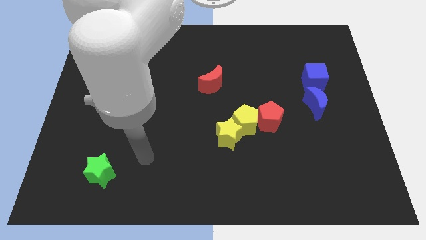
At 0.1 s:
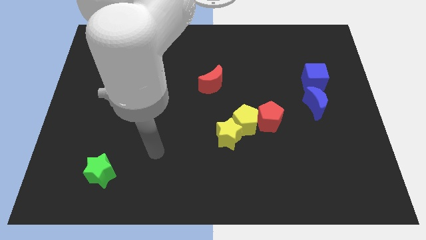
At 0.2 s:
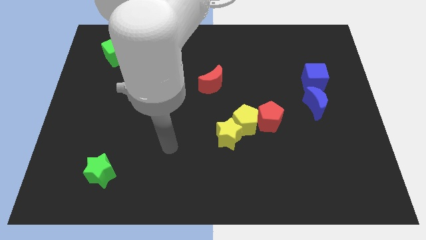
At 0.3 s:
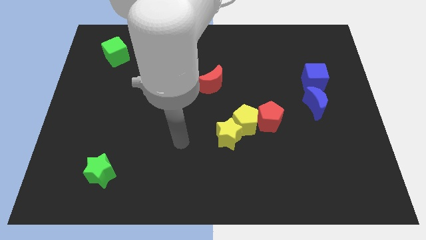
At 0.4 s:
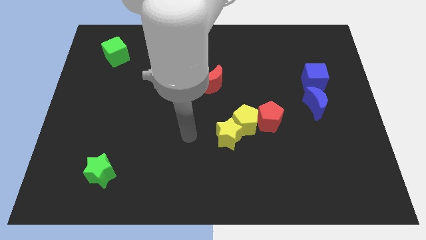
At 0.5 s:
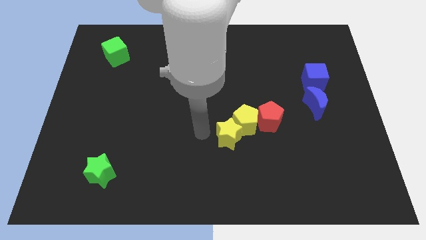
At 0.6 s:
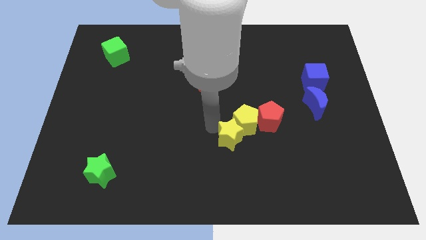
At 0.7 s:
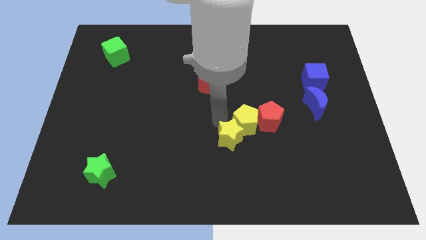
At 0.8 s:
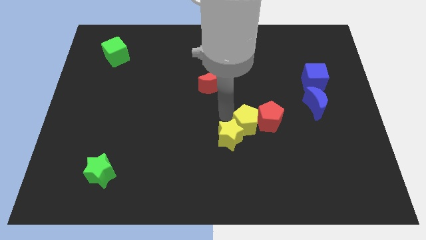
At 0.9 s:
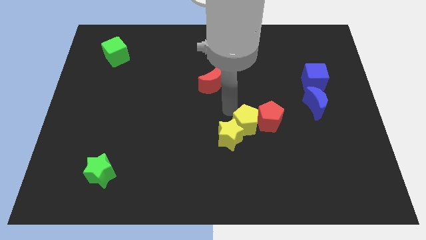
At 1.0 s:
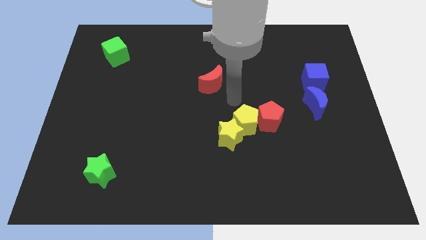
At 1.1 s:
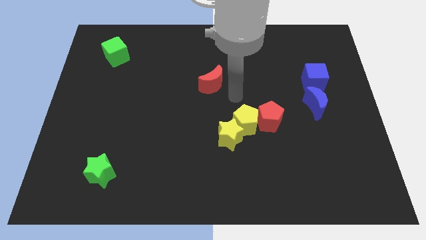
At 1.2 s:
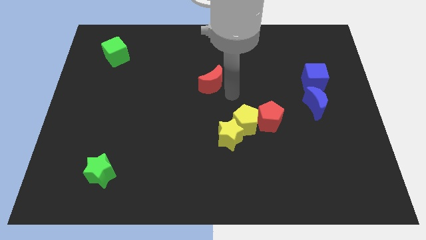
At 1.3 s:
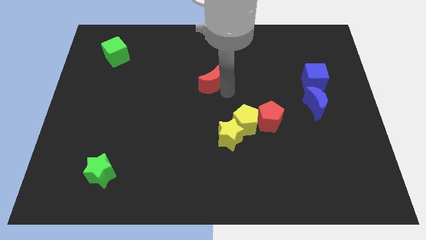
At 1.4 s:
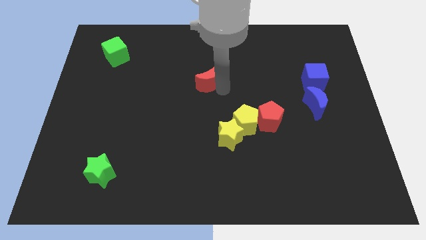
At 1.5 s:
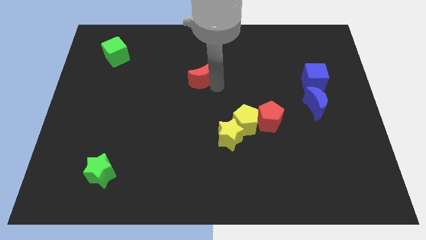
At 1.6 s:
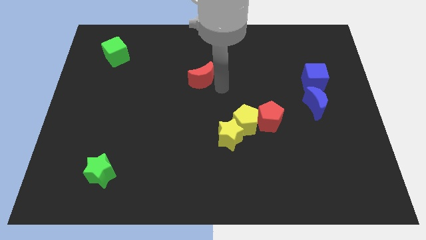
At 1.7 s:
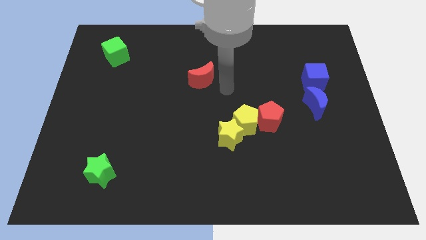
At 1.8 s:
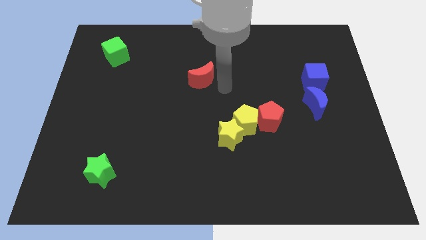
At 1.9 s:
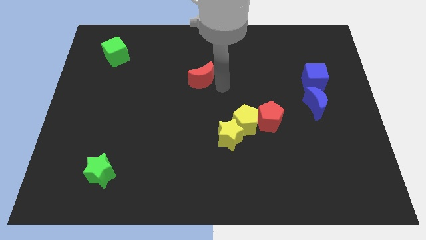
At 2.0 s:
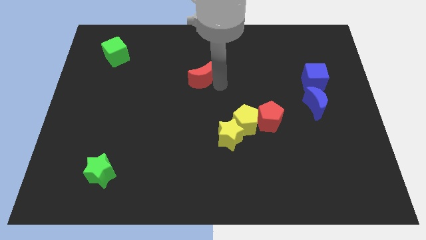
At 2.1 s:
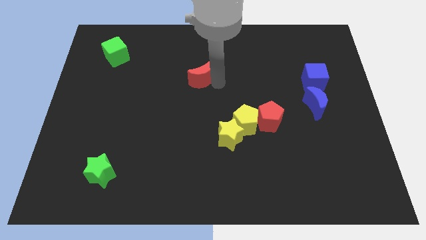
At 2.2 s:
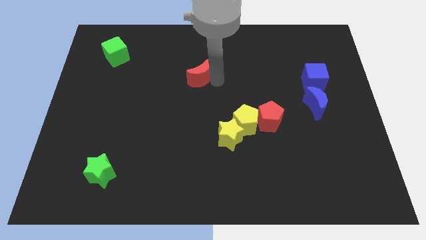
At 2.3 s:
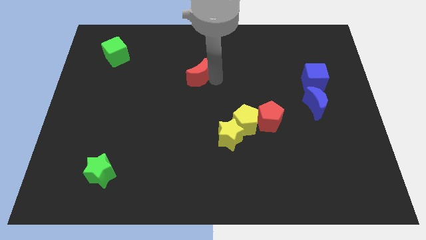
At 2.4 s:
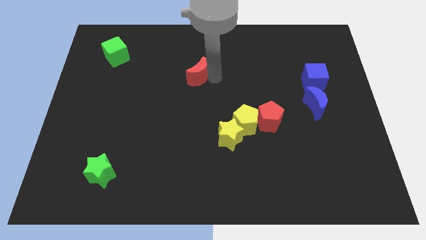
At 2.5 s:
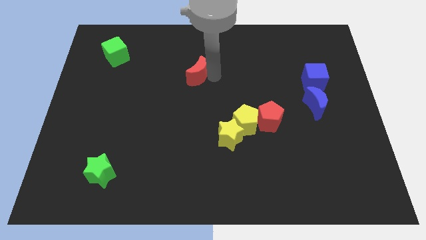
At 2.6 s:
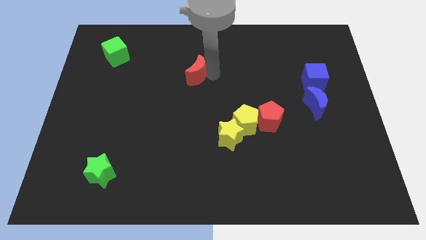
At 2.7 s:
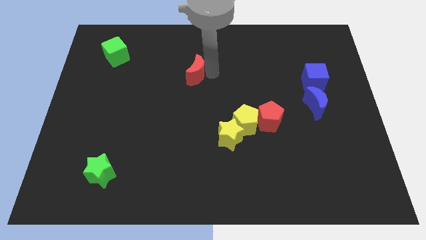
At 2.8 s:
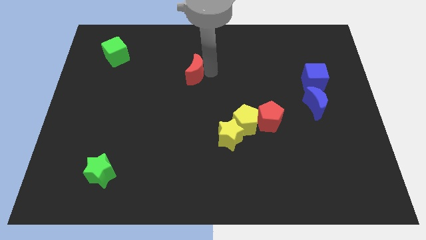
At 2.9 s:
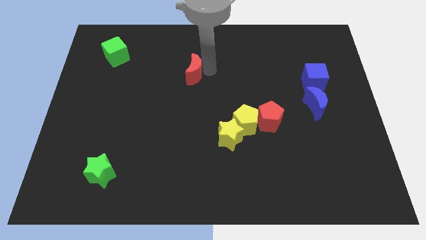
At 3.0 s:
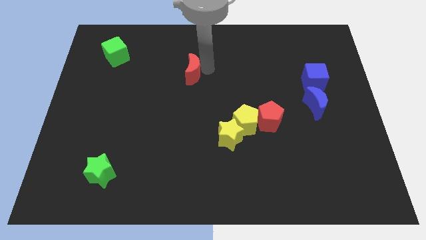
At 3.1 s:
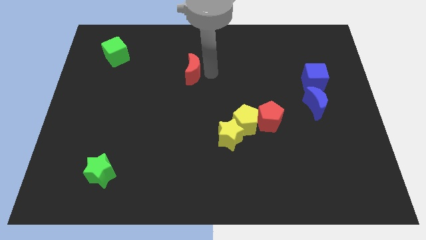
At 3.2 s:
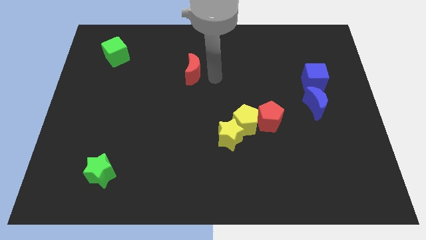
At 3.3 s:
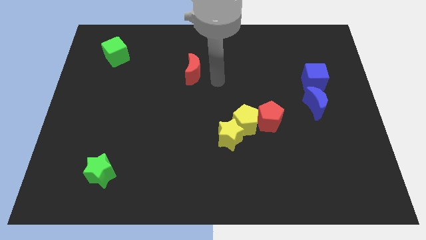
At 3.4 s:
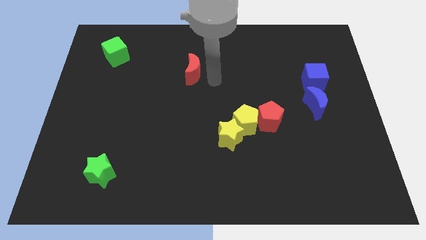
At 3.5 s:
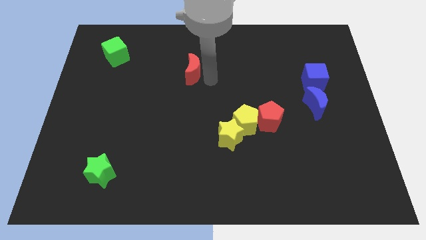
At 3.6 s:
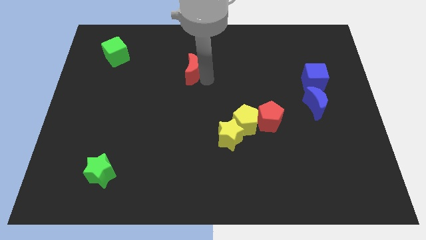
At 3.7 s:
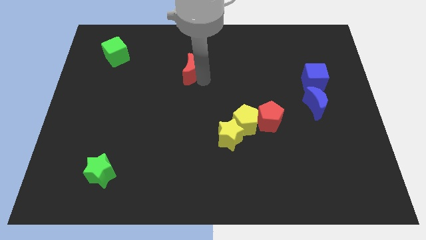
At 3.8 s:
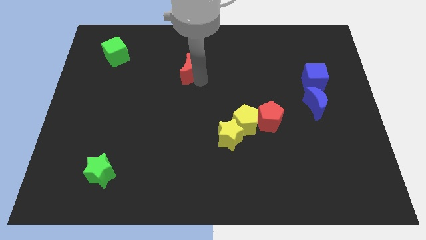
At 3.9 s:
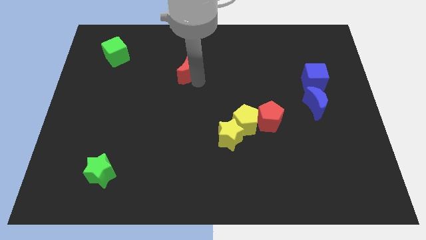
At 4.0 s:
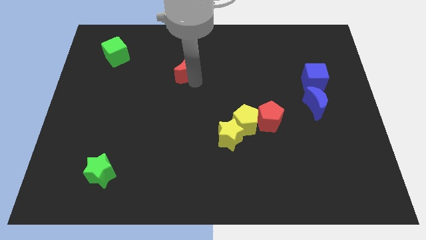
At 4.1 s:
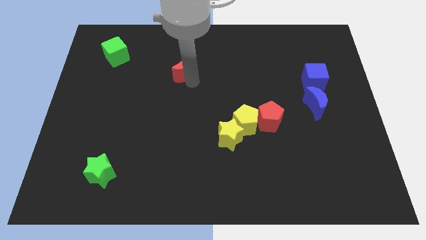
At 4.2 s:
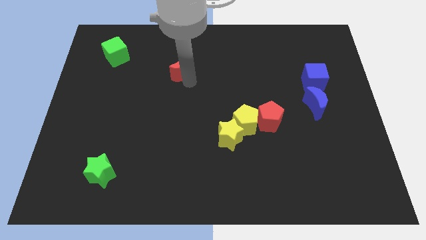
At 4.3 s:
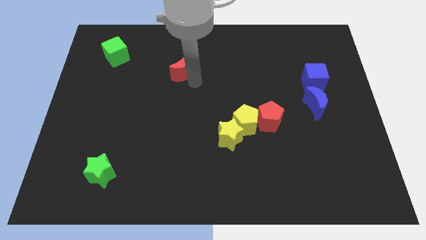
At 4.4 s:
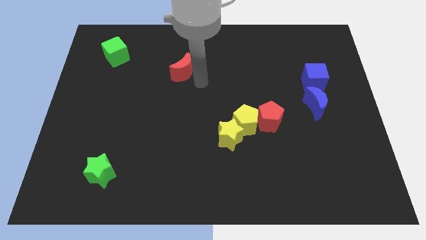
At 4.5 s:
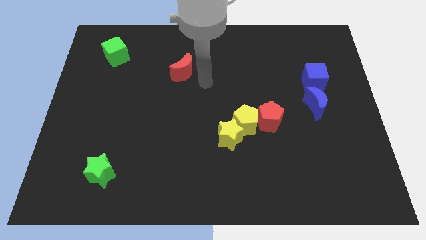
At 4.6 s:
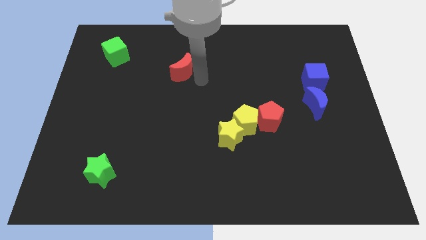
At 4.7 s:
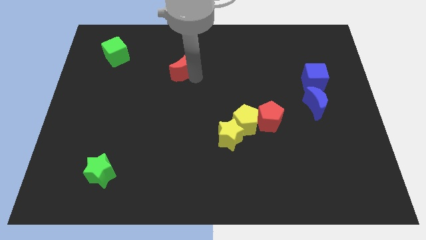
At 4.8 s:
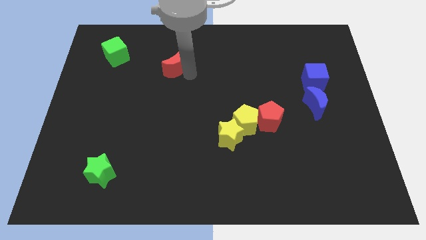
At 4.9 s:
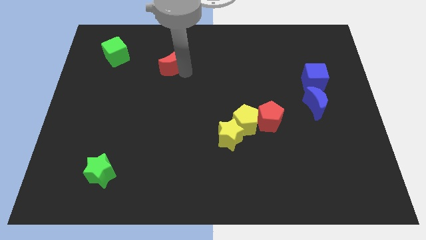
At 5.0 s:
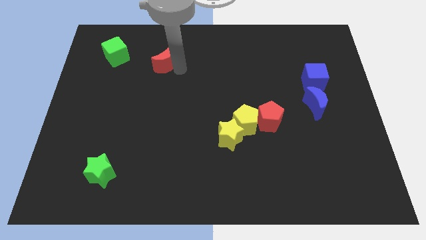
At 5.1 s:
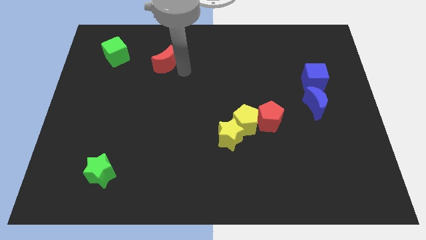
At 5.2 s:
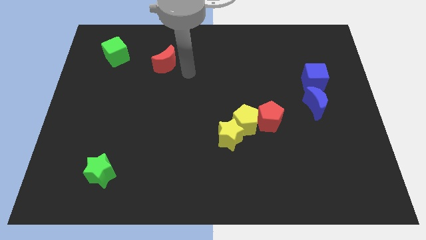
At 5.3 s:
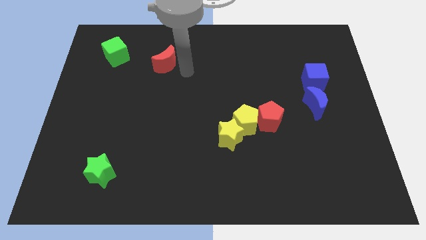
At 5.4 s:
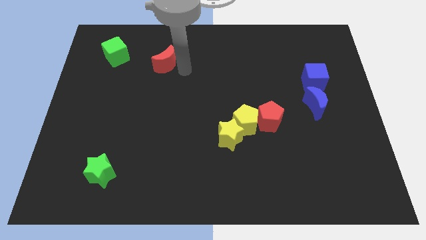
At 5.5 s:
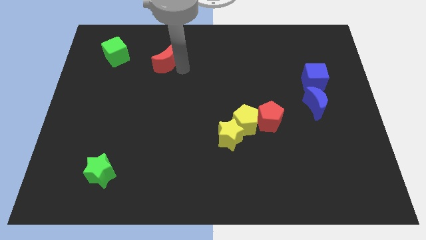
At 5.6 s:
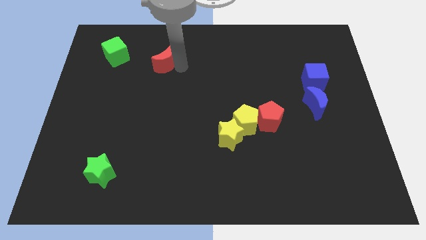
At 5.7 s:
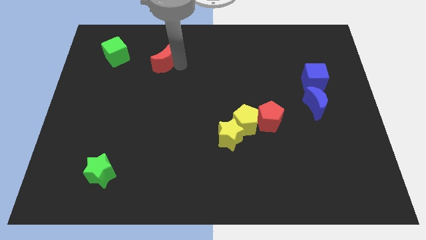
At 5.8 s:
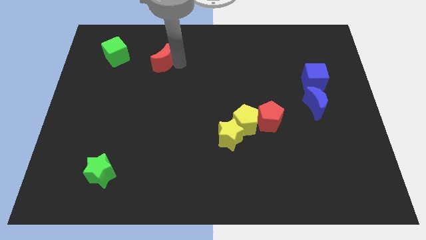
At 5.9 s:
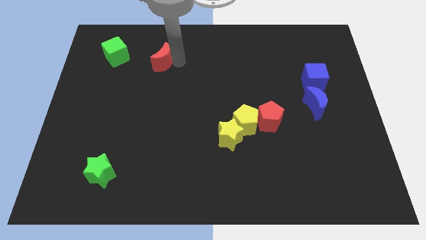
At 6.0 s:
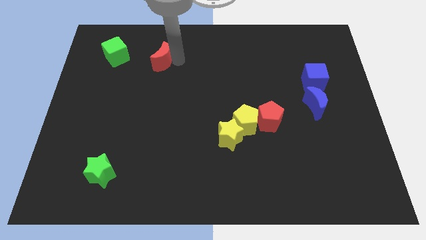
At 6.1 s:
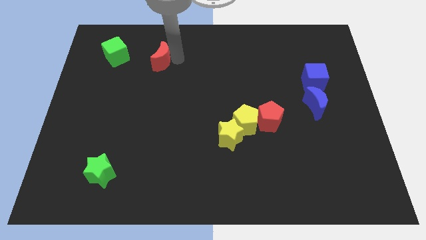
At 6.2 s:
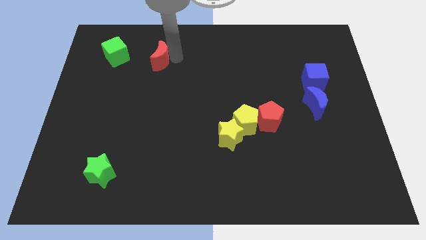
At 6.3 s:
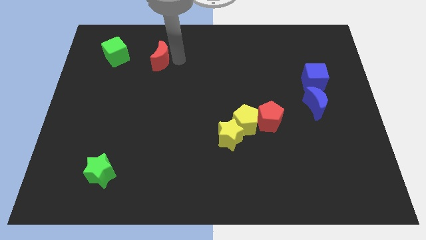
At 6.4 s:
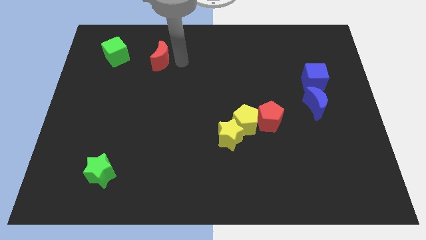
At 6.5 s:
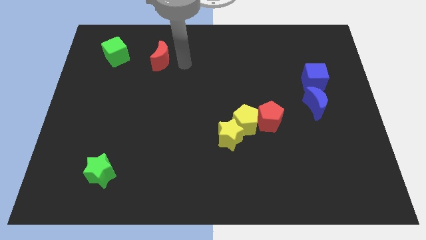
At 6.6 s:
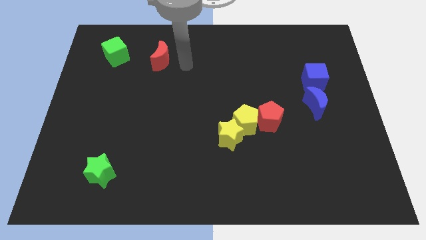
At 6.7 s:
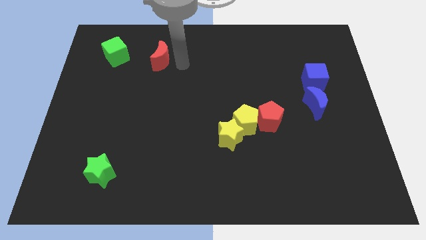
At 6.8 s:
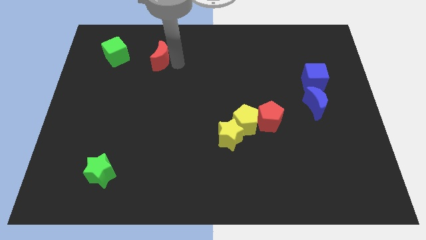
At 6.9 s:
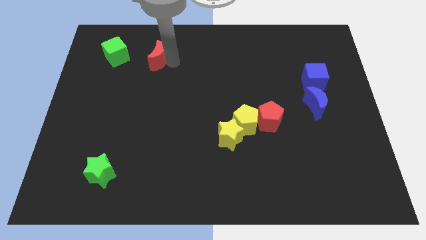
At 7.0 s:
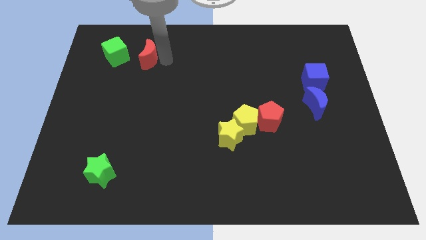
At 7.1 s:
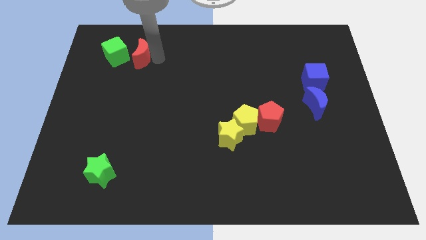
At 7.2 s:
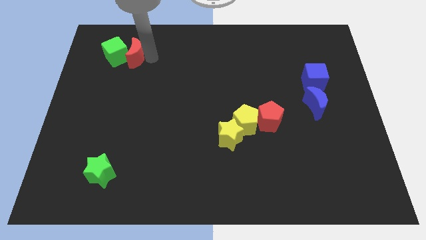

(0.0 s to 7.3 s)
put the red moon towards the green cube

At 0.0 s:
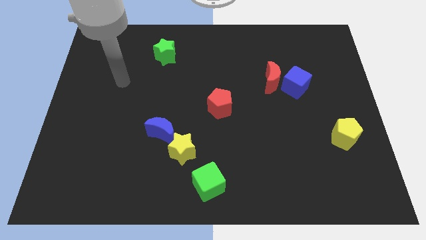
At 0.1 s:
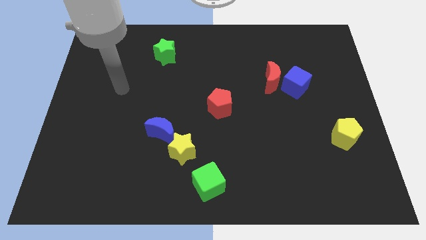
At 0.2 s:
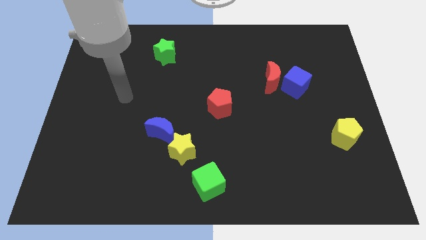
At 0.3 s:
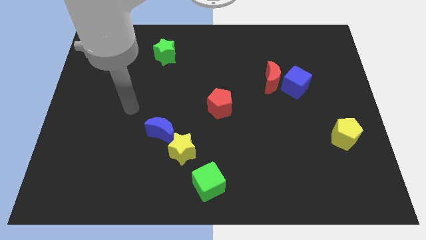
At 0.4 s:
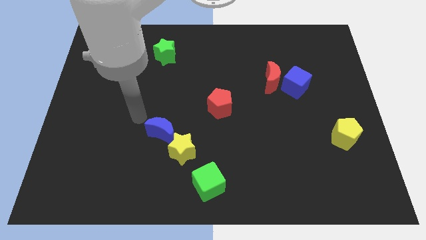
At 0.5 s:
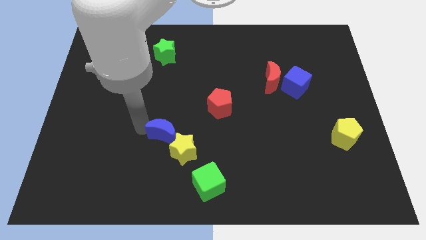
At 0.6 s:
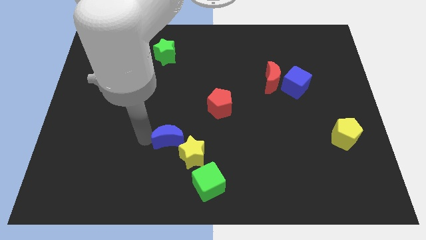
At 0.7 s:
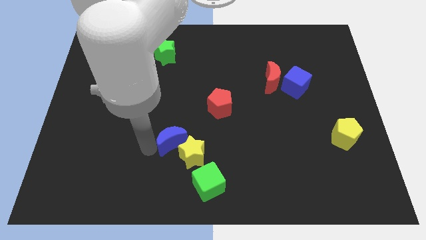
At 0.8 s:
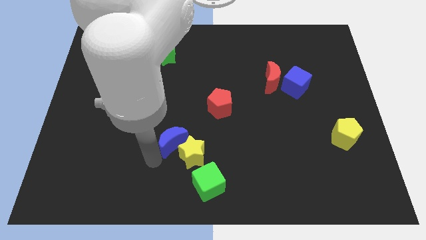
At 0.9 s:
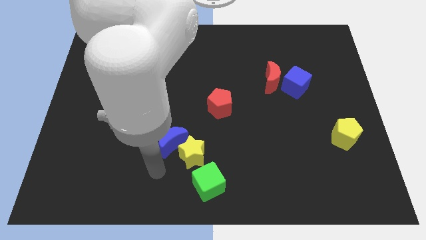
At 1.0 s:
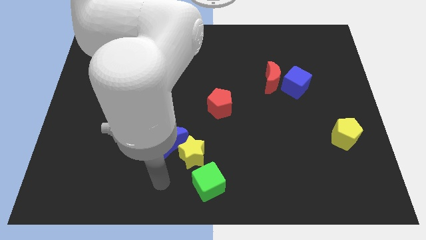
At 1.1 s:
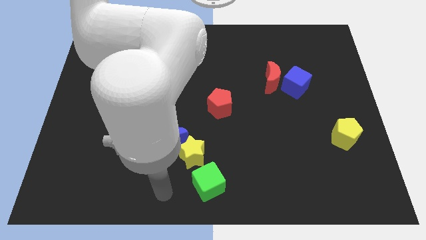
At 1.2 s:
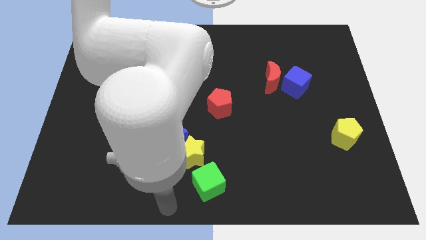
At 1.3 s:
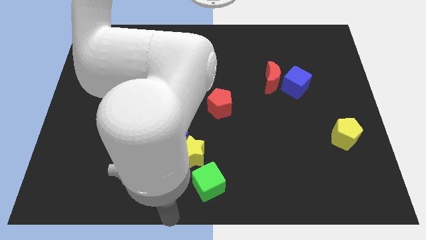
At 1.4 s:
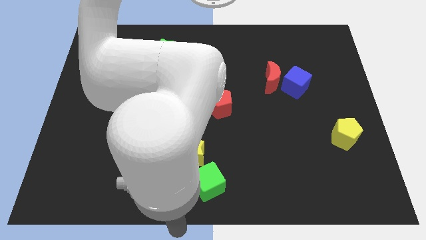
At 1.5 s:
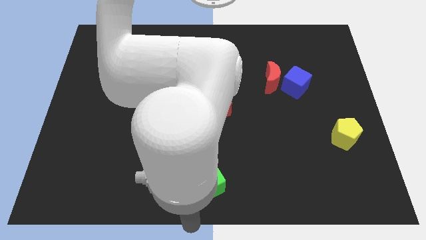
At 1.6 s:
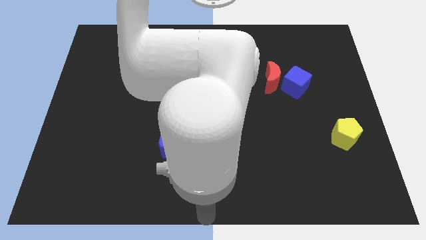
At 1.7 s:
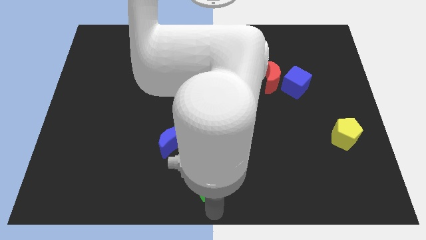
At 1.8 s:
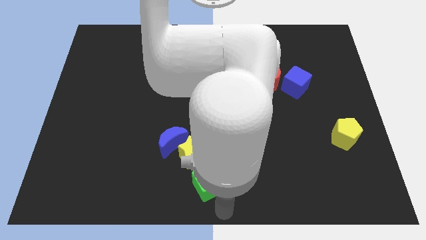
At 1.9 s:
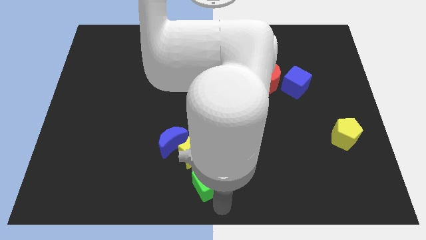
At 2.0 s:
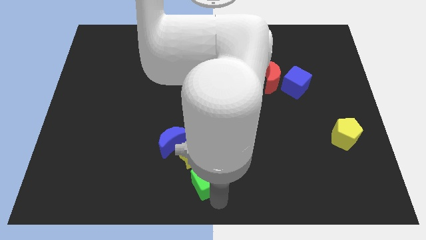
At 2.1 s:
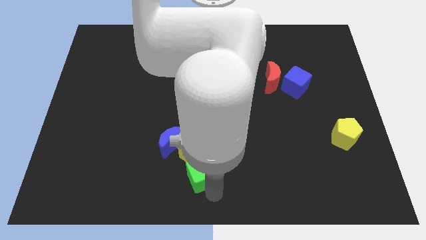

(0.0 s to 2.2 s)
slide the green cube close to the yellow star
